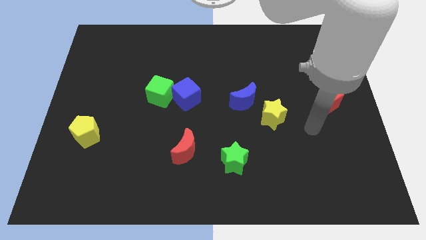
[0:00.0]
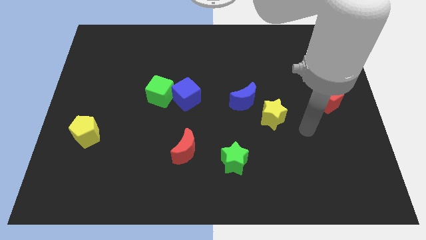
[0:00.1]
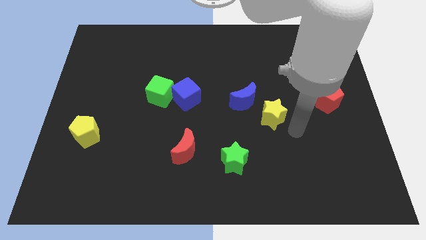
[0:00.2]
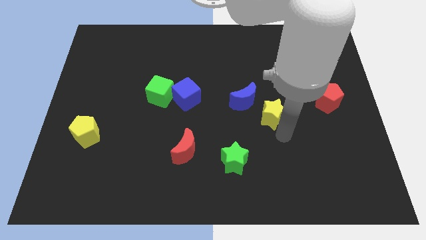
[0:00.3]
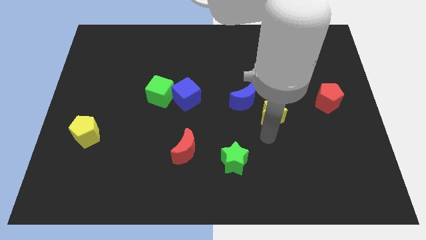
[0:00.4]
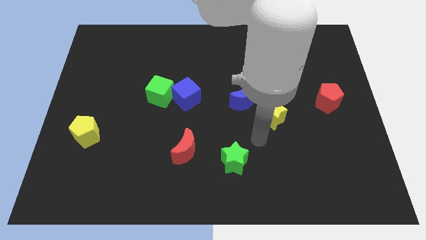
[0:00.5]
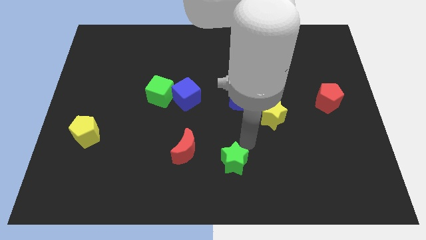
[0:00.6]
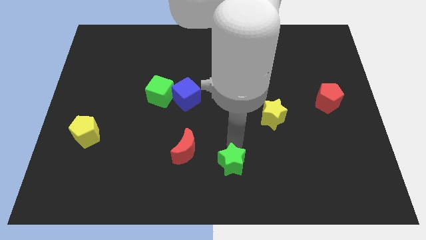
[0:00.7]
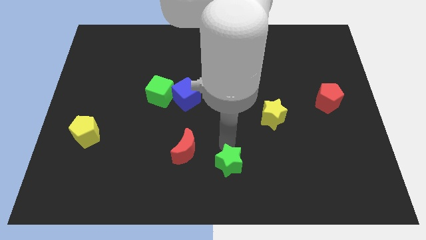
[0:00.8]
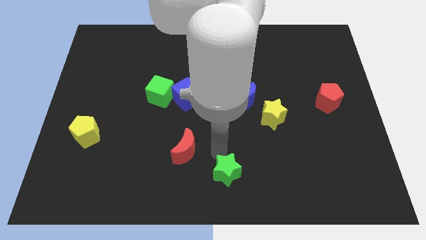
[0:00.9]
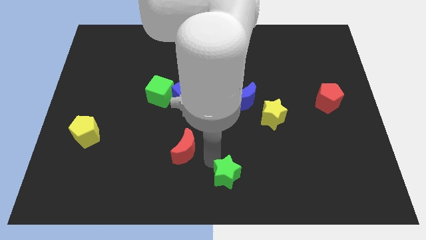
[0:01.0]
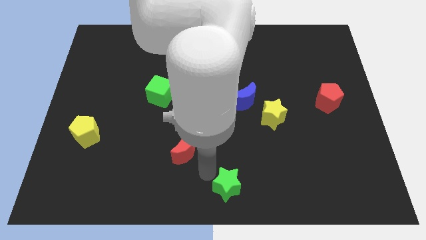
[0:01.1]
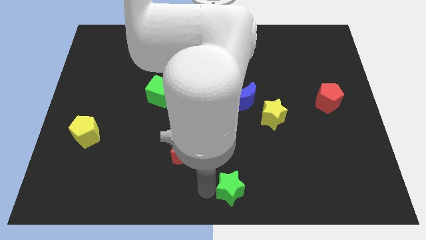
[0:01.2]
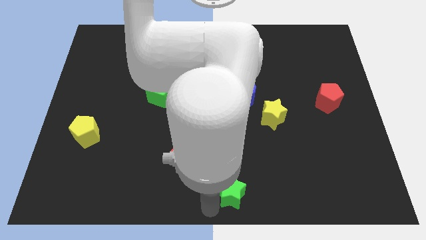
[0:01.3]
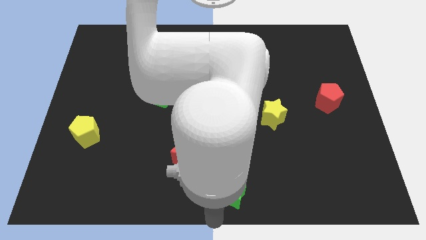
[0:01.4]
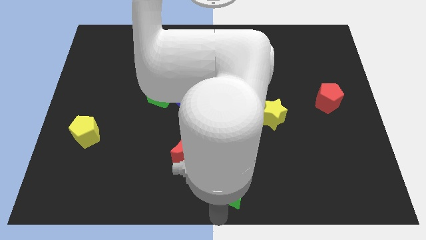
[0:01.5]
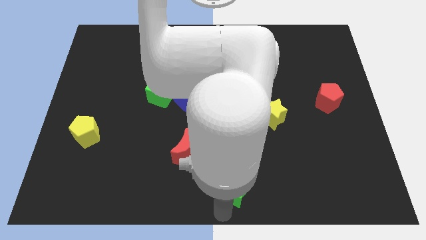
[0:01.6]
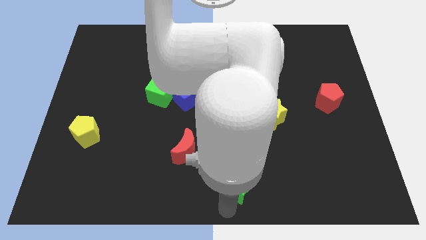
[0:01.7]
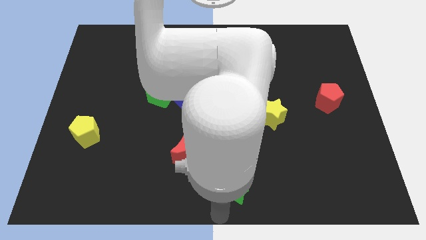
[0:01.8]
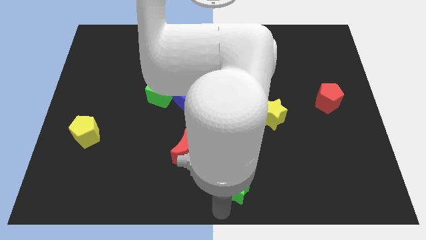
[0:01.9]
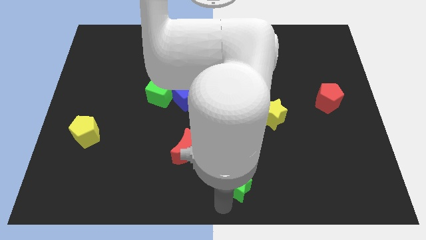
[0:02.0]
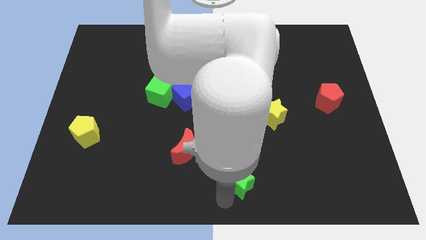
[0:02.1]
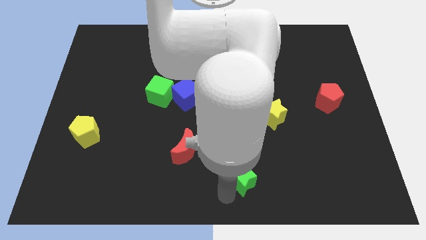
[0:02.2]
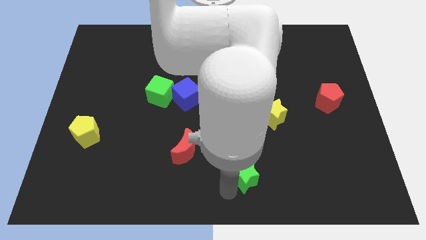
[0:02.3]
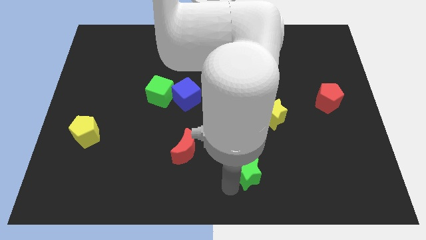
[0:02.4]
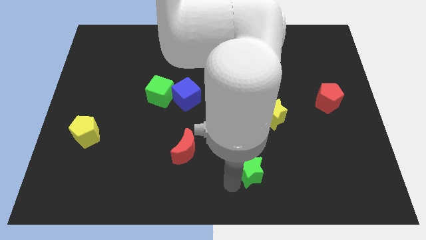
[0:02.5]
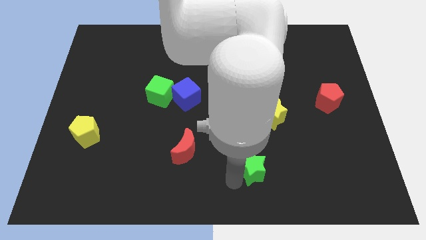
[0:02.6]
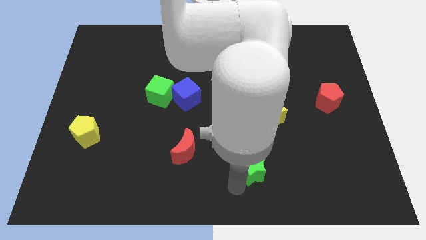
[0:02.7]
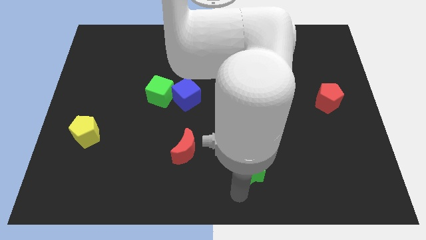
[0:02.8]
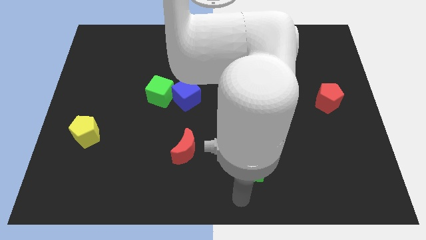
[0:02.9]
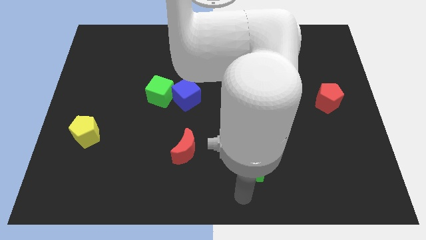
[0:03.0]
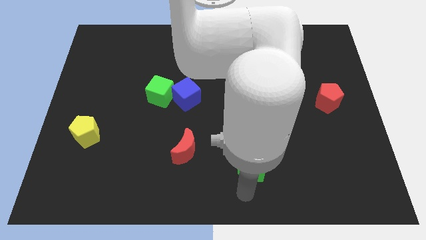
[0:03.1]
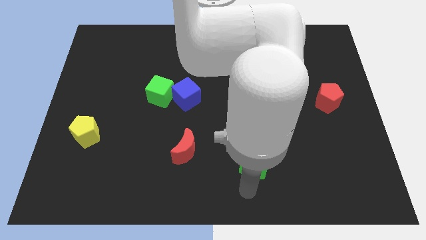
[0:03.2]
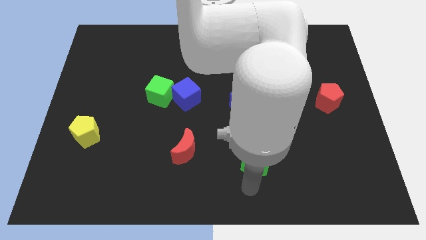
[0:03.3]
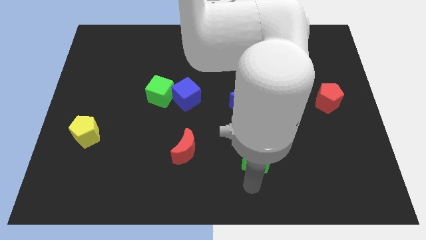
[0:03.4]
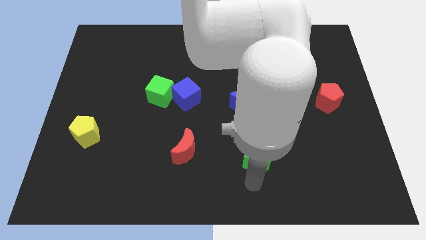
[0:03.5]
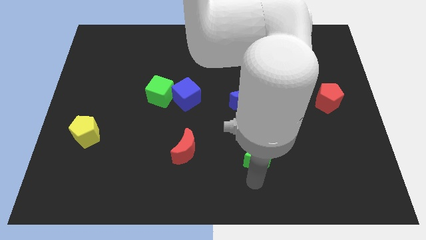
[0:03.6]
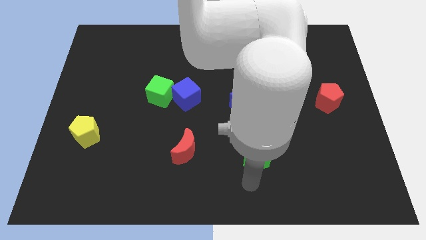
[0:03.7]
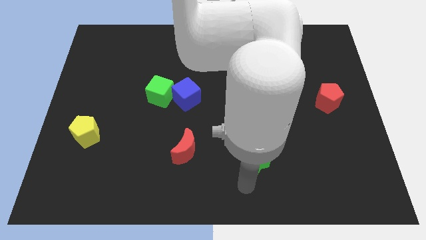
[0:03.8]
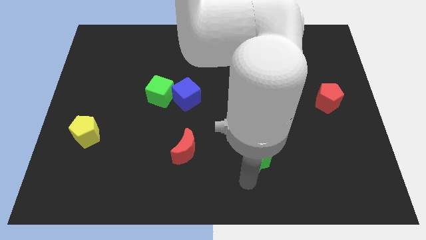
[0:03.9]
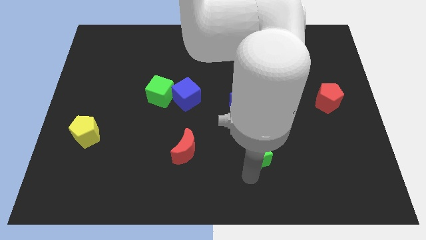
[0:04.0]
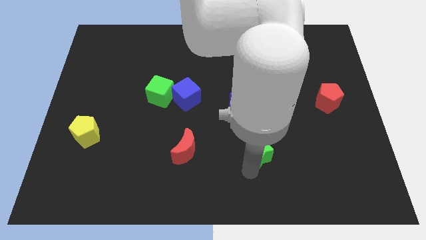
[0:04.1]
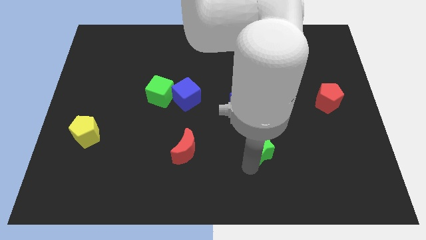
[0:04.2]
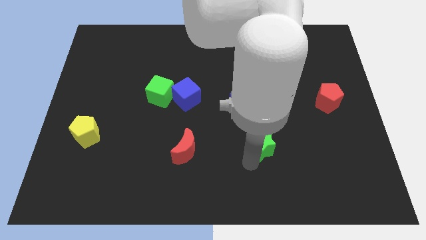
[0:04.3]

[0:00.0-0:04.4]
push the green star upwards and then right a little

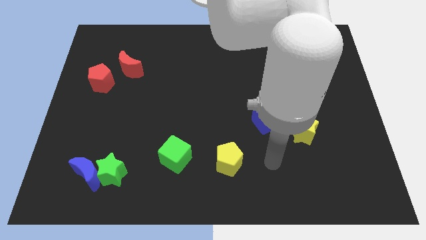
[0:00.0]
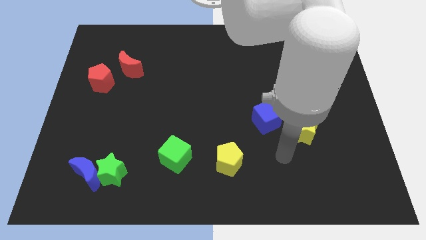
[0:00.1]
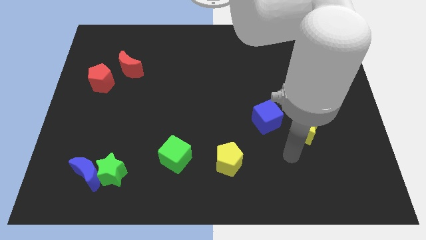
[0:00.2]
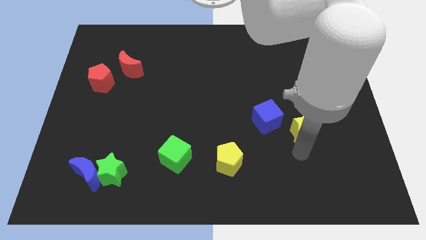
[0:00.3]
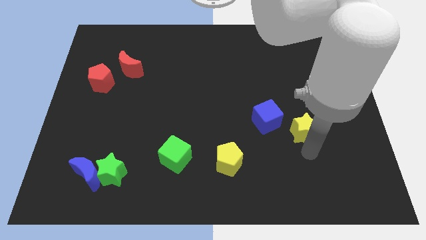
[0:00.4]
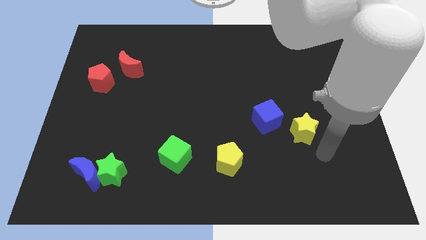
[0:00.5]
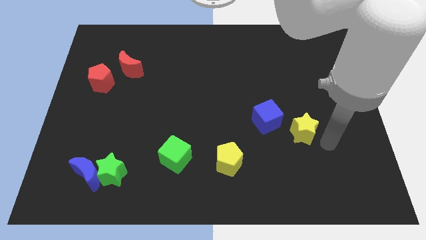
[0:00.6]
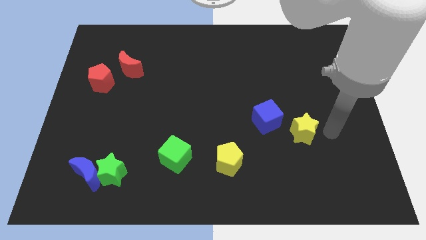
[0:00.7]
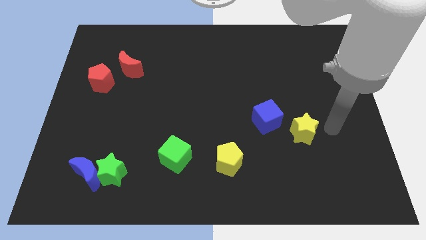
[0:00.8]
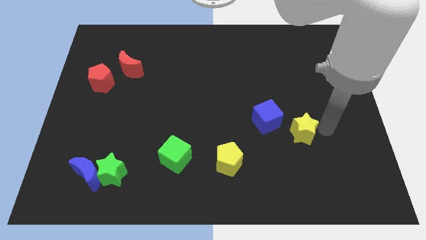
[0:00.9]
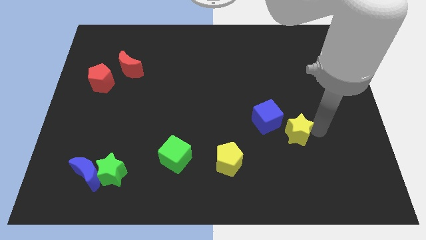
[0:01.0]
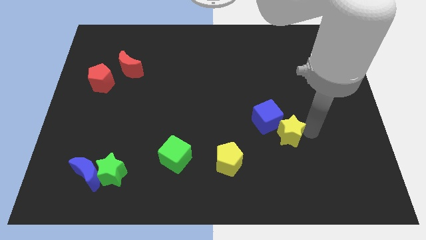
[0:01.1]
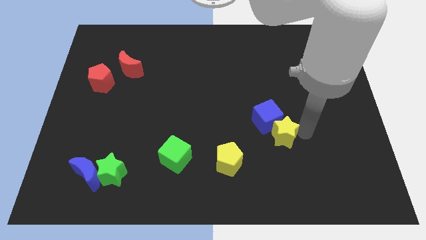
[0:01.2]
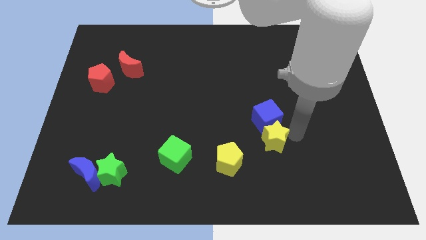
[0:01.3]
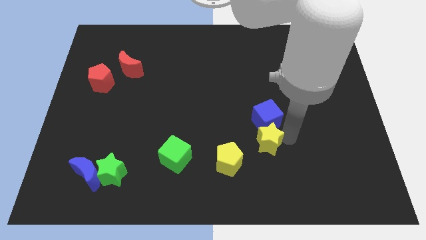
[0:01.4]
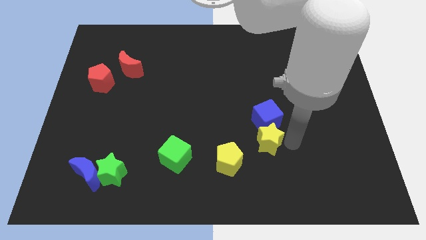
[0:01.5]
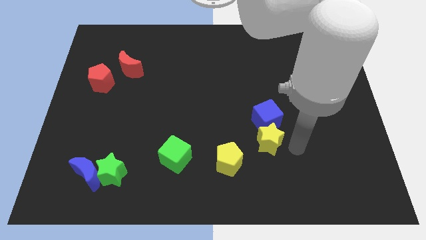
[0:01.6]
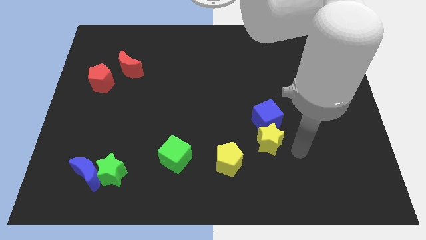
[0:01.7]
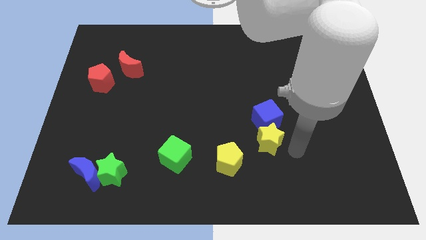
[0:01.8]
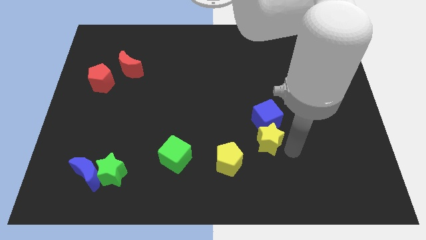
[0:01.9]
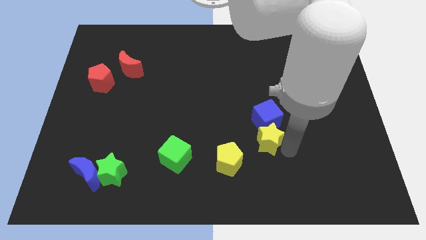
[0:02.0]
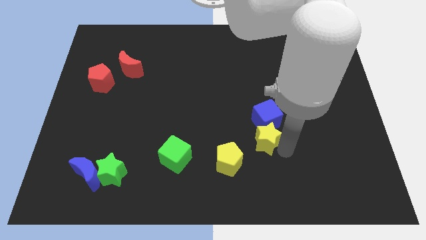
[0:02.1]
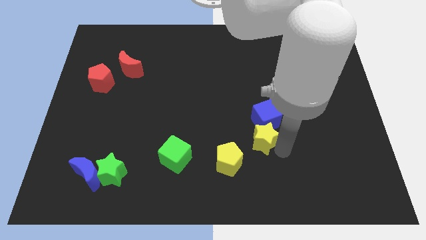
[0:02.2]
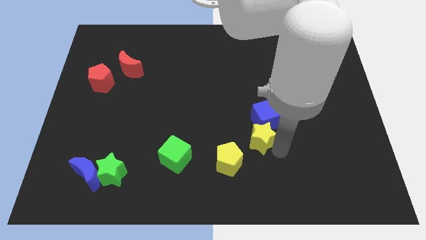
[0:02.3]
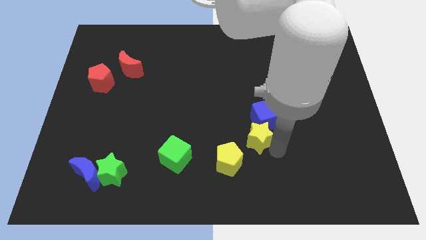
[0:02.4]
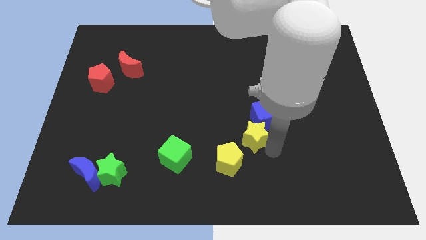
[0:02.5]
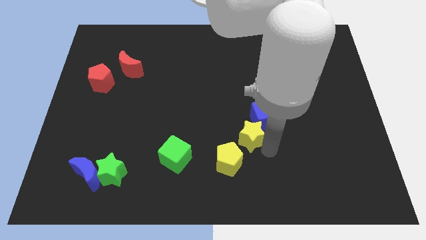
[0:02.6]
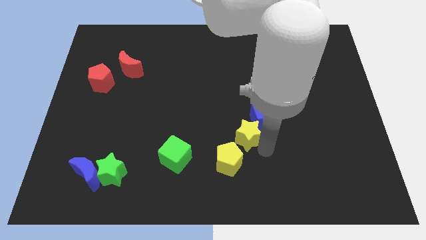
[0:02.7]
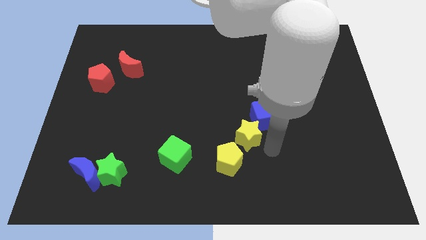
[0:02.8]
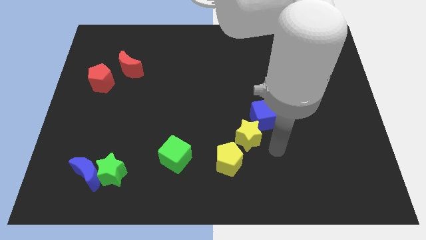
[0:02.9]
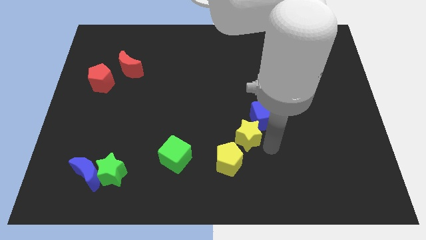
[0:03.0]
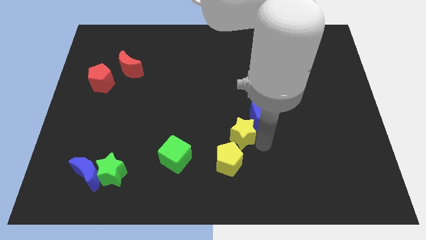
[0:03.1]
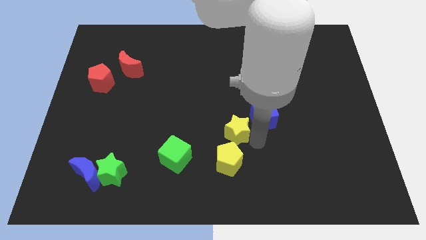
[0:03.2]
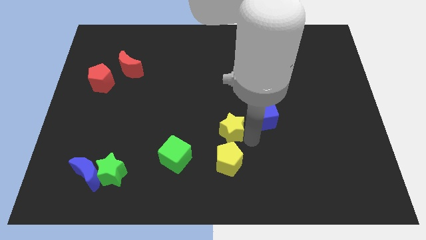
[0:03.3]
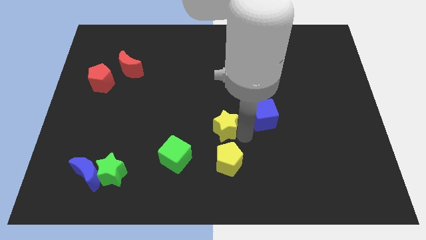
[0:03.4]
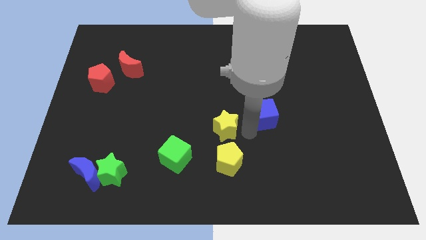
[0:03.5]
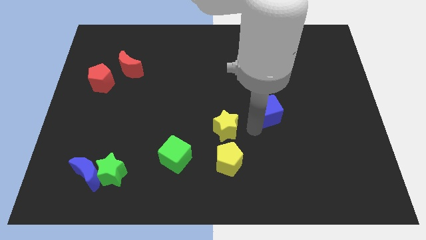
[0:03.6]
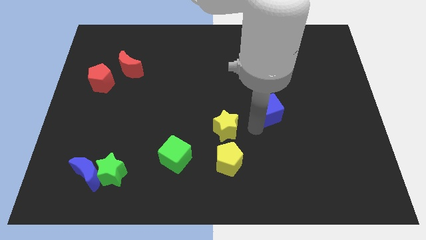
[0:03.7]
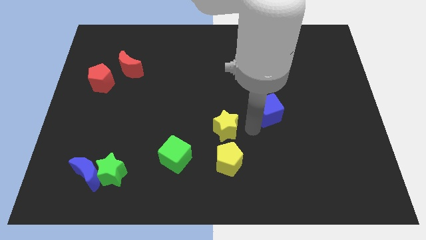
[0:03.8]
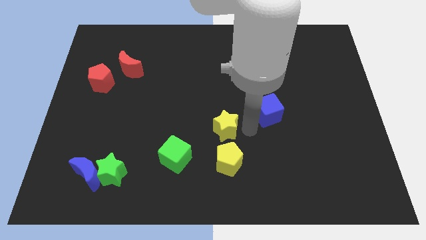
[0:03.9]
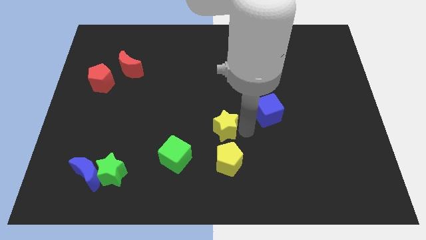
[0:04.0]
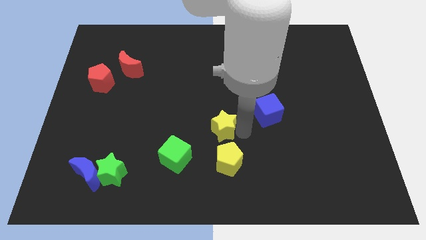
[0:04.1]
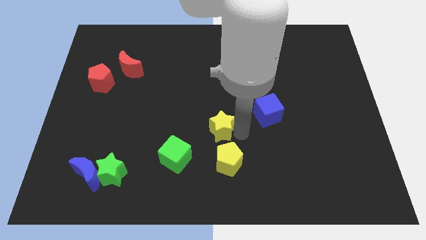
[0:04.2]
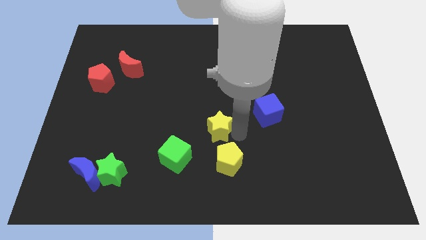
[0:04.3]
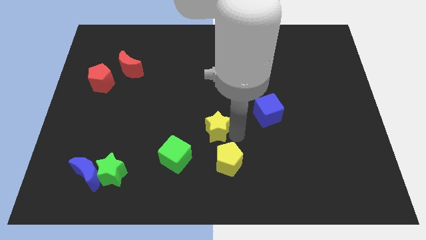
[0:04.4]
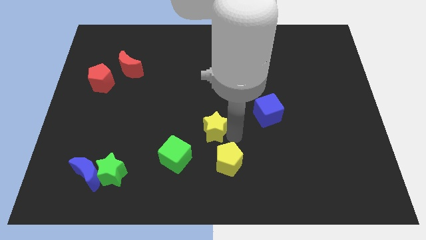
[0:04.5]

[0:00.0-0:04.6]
push the yellow star left
